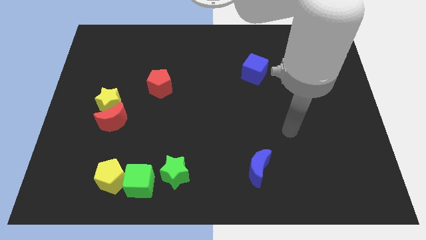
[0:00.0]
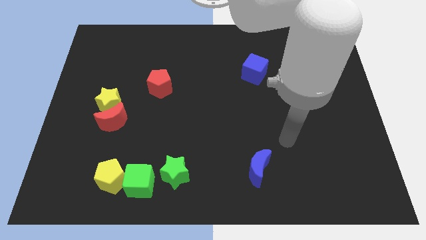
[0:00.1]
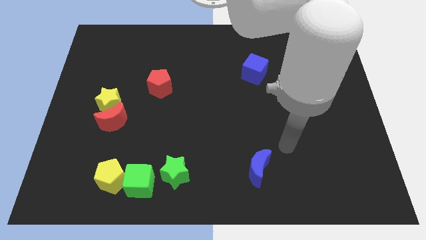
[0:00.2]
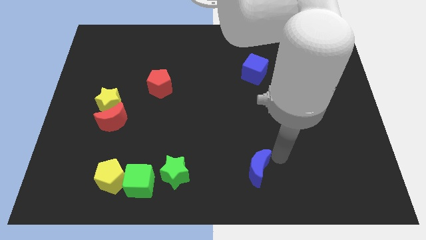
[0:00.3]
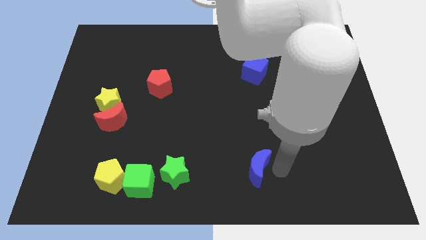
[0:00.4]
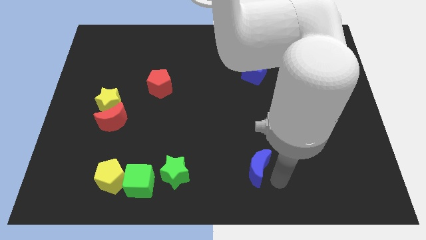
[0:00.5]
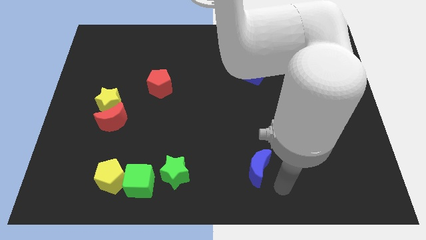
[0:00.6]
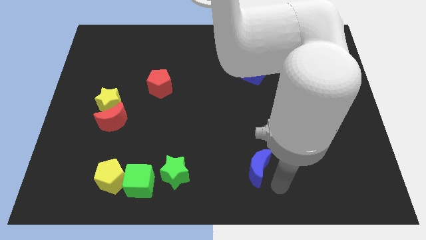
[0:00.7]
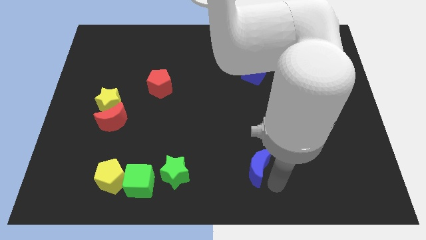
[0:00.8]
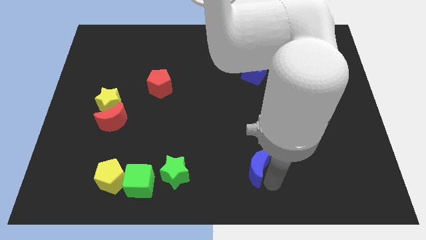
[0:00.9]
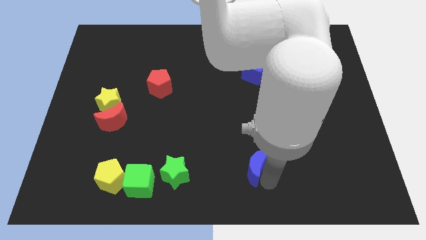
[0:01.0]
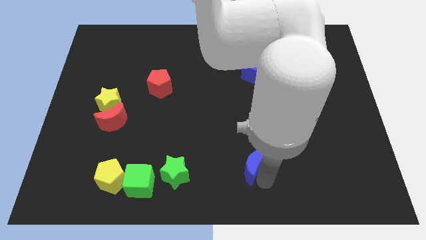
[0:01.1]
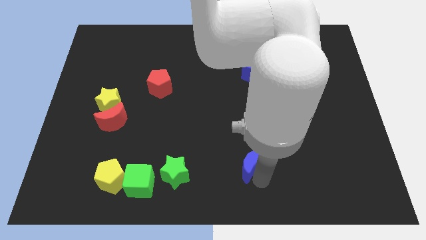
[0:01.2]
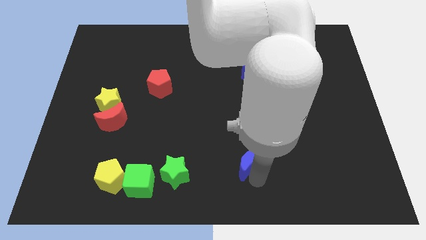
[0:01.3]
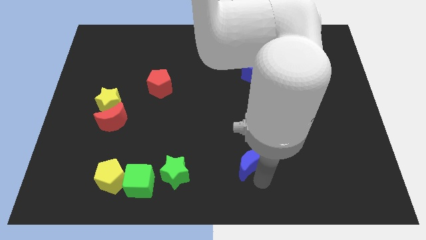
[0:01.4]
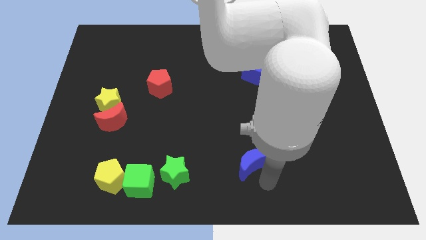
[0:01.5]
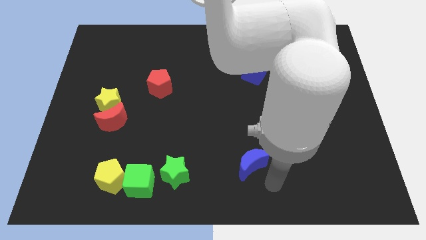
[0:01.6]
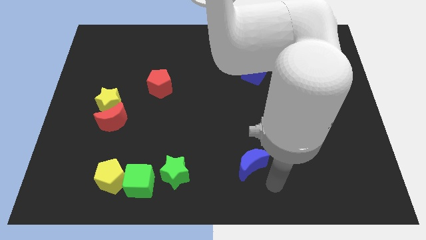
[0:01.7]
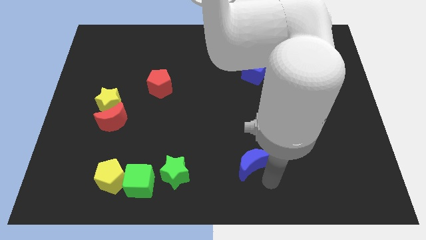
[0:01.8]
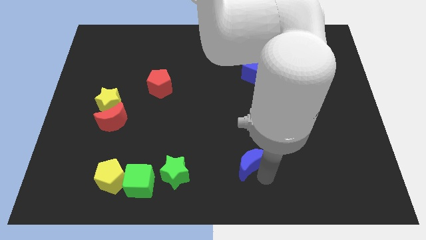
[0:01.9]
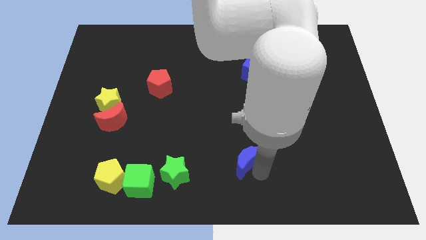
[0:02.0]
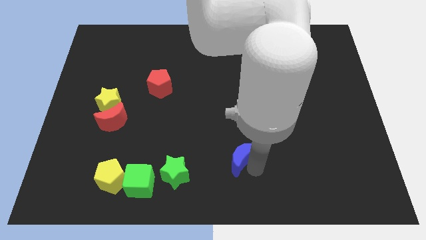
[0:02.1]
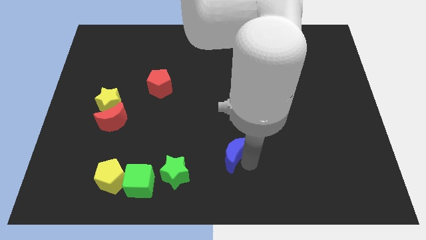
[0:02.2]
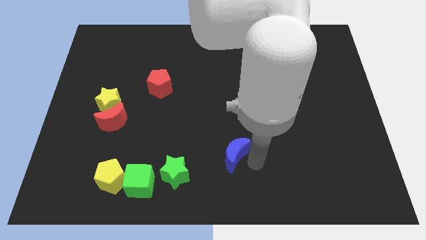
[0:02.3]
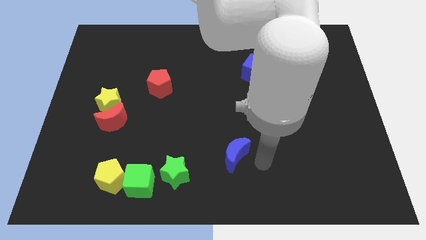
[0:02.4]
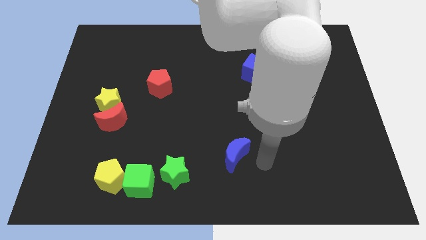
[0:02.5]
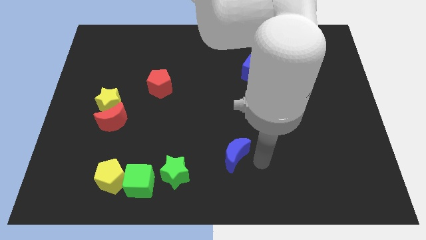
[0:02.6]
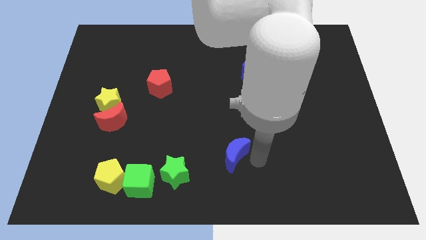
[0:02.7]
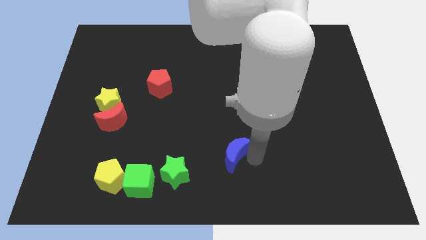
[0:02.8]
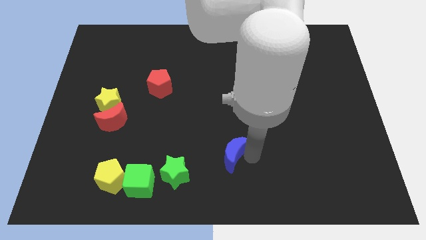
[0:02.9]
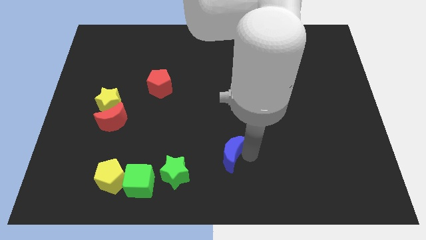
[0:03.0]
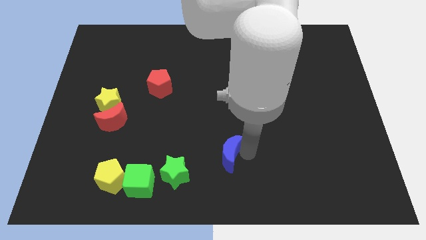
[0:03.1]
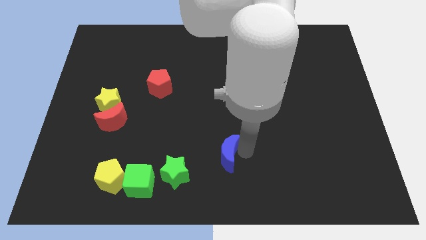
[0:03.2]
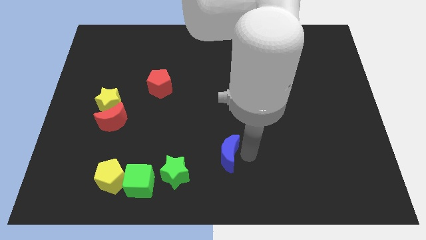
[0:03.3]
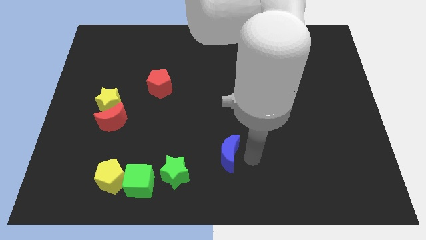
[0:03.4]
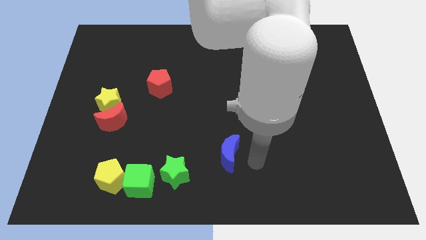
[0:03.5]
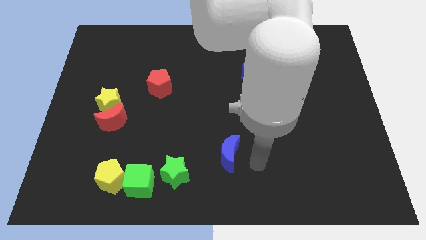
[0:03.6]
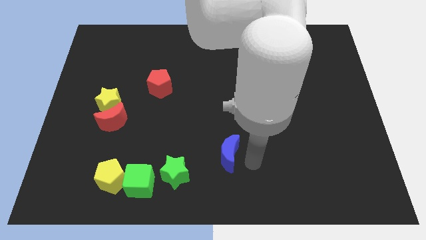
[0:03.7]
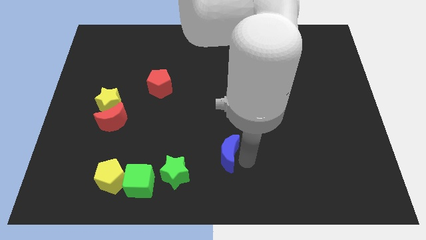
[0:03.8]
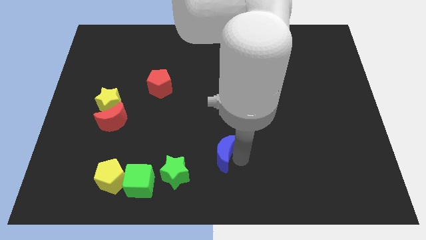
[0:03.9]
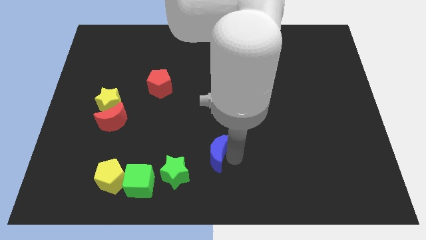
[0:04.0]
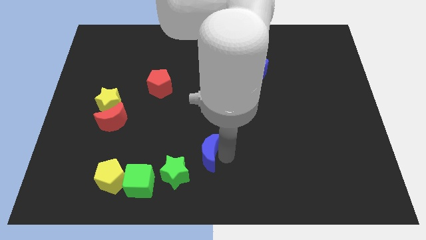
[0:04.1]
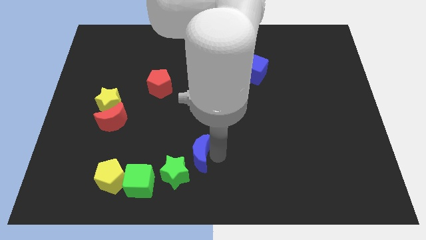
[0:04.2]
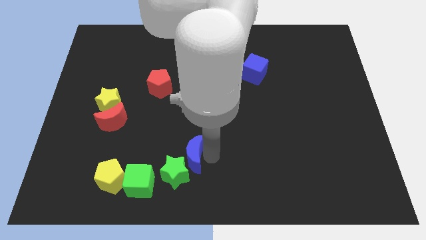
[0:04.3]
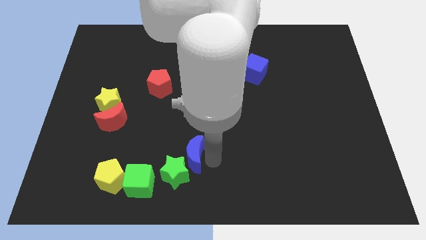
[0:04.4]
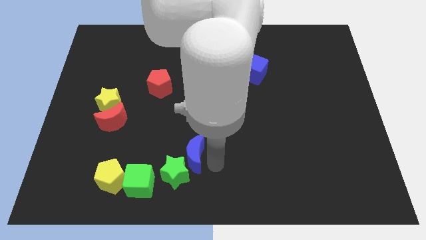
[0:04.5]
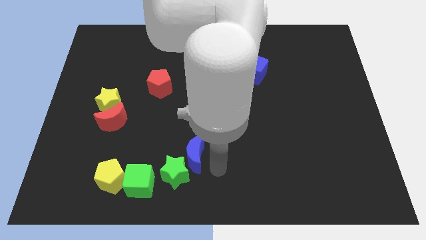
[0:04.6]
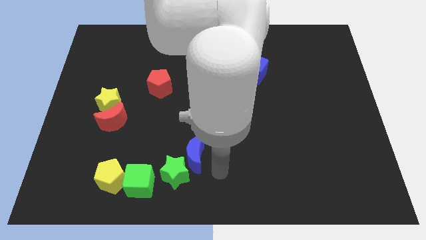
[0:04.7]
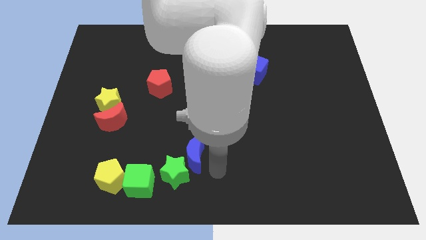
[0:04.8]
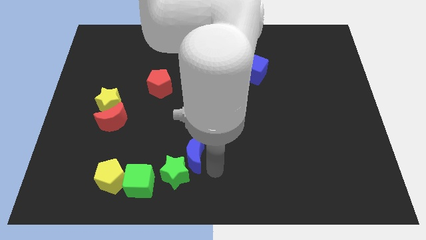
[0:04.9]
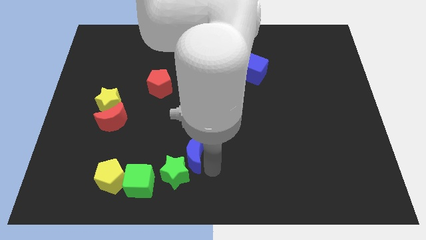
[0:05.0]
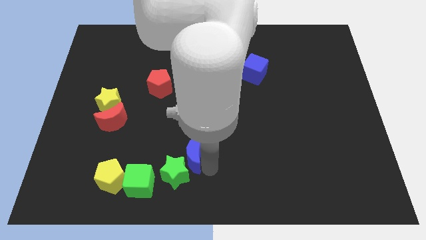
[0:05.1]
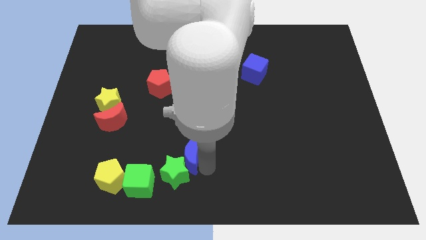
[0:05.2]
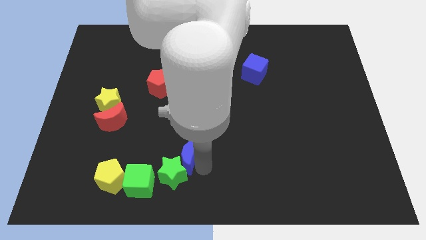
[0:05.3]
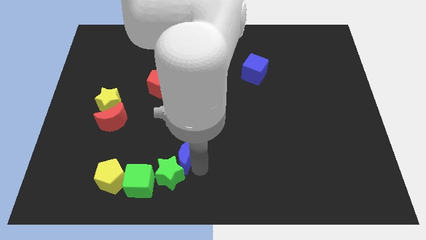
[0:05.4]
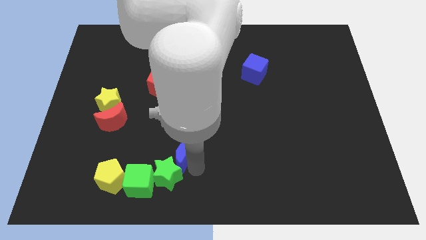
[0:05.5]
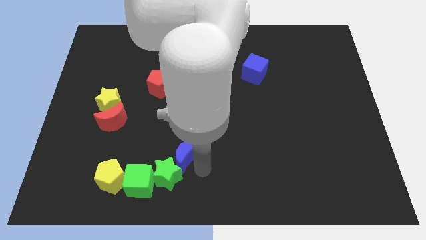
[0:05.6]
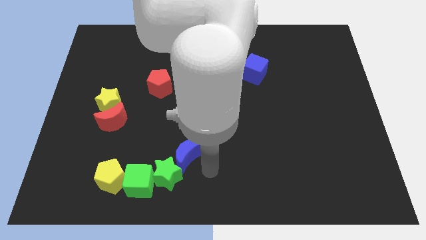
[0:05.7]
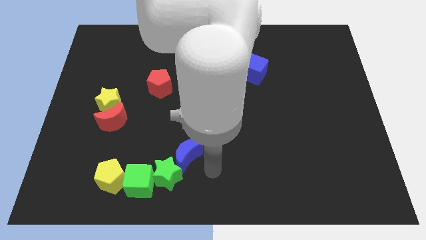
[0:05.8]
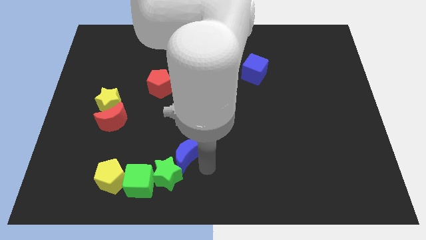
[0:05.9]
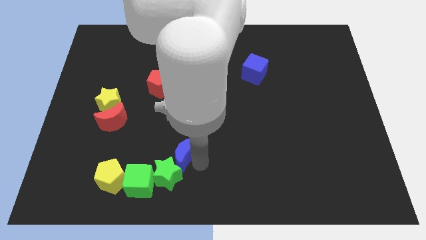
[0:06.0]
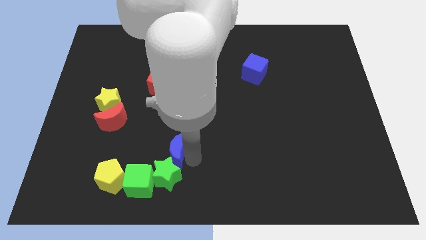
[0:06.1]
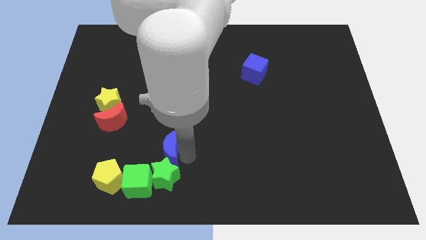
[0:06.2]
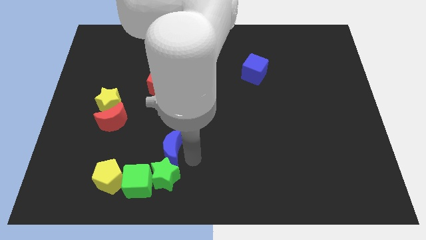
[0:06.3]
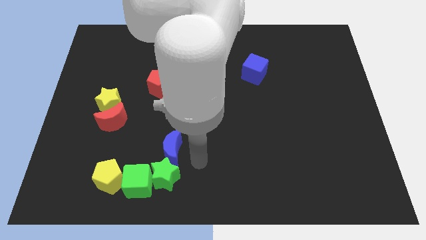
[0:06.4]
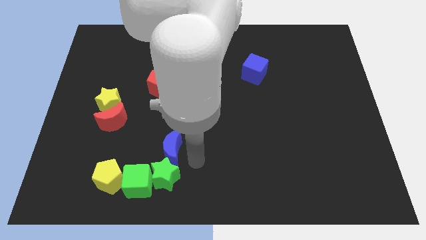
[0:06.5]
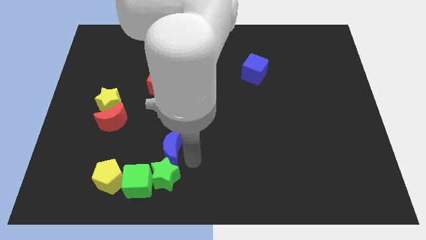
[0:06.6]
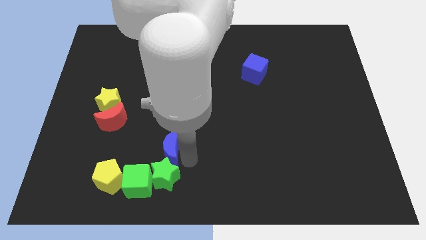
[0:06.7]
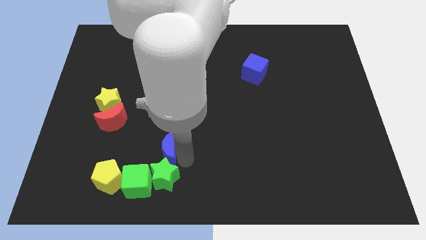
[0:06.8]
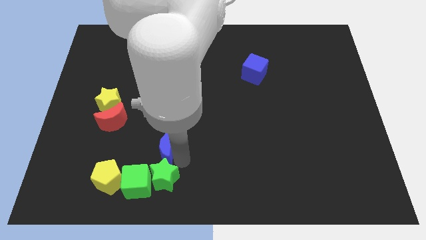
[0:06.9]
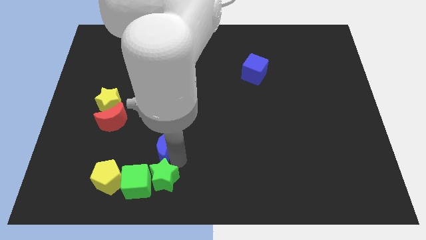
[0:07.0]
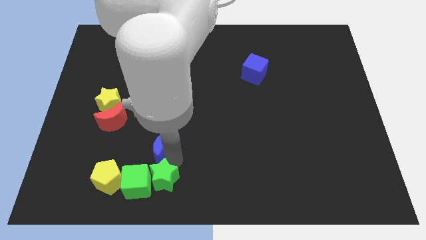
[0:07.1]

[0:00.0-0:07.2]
push the blue moon above the green cube
